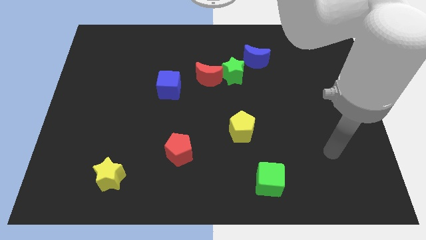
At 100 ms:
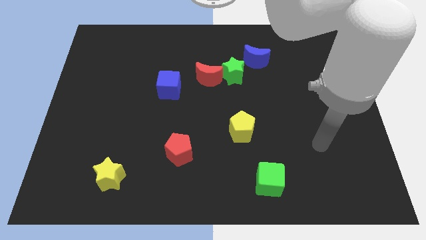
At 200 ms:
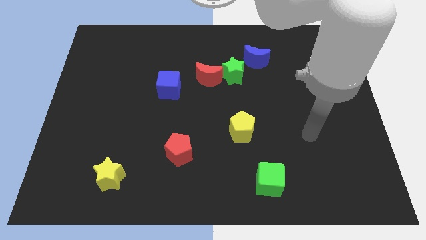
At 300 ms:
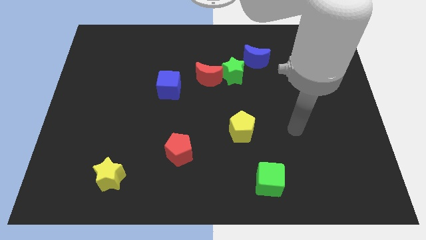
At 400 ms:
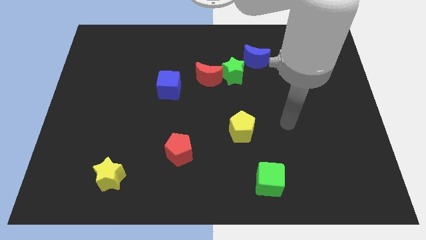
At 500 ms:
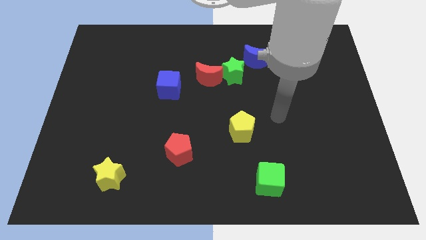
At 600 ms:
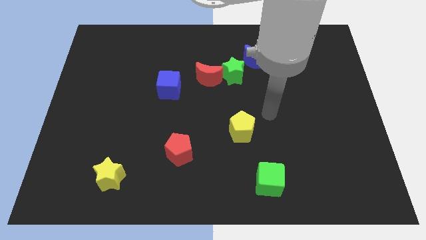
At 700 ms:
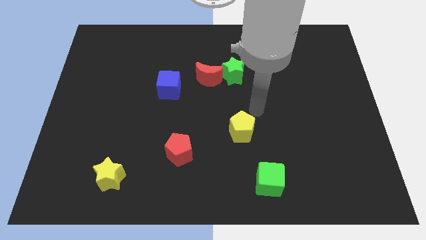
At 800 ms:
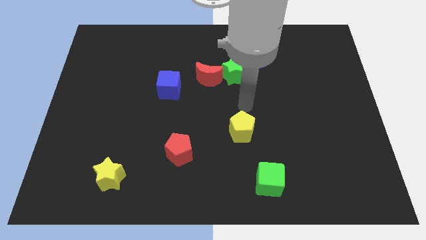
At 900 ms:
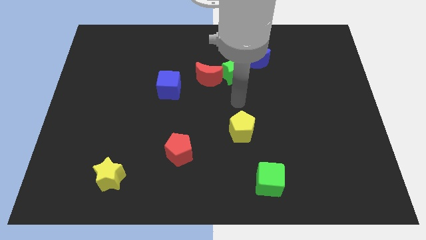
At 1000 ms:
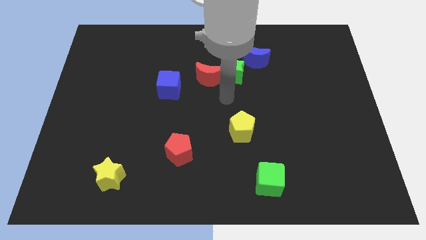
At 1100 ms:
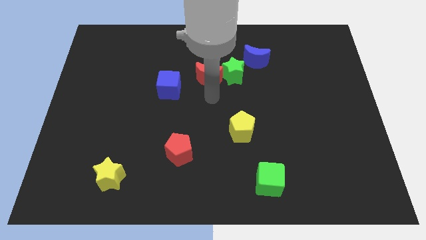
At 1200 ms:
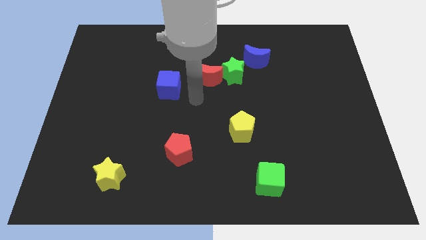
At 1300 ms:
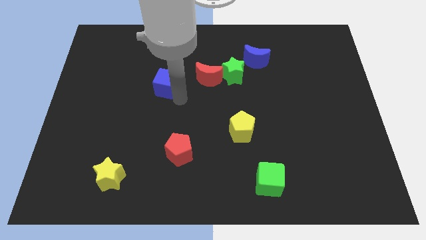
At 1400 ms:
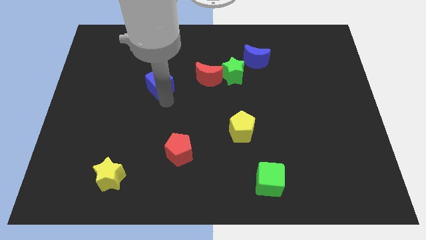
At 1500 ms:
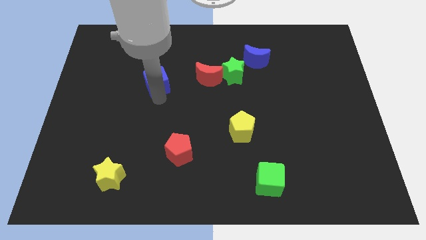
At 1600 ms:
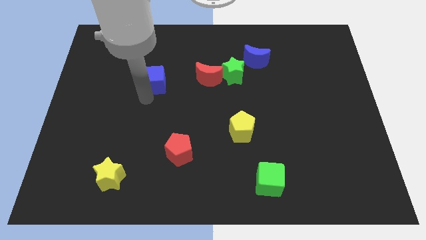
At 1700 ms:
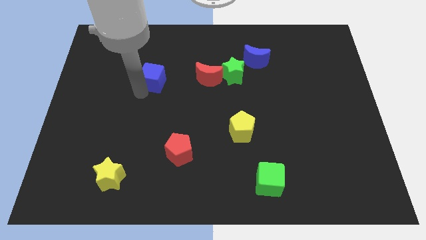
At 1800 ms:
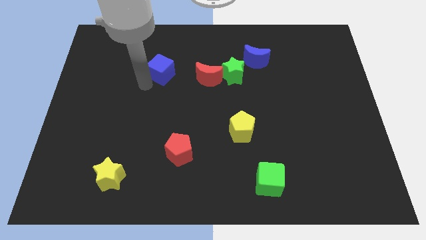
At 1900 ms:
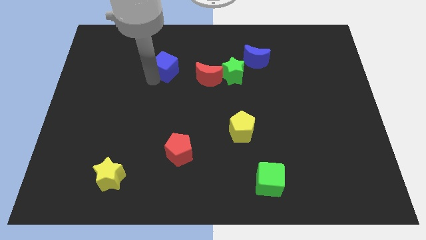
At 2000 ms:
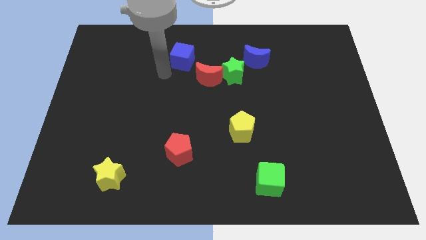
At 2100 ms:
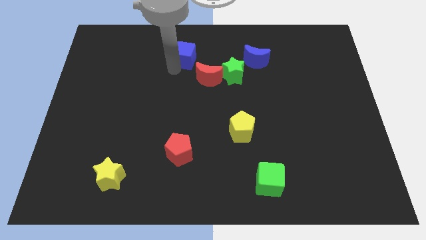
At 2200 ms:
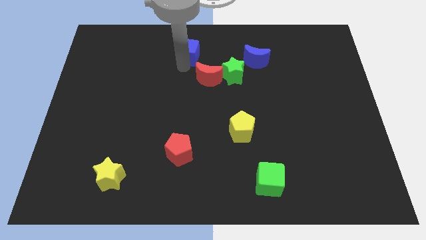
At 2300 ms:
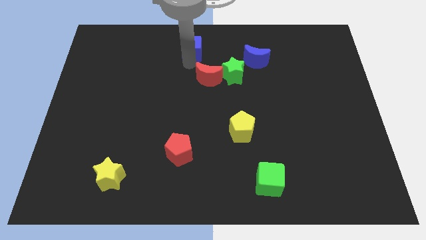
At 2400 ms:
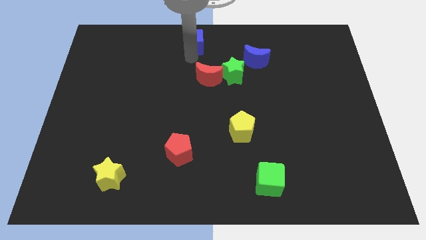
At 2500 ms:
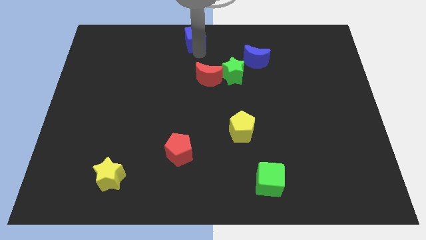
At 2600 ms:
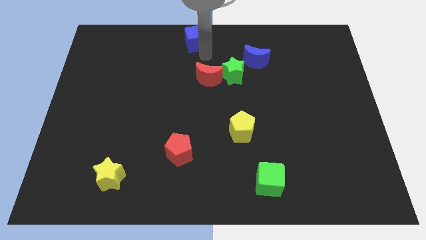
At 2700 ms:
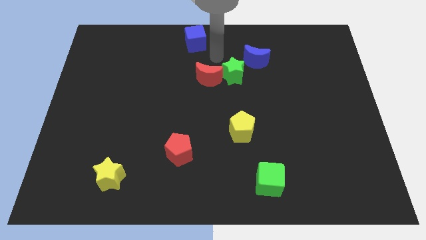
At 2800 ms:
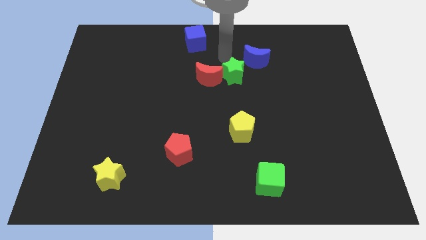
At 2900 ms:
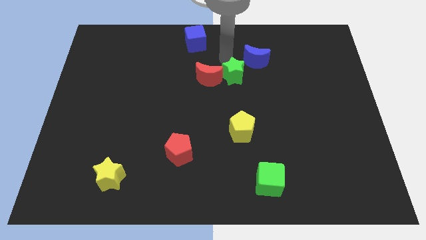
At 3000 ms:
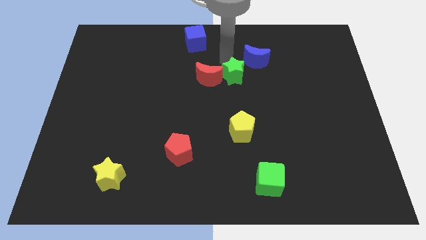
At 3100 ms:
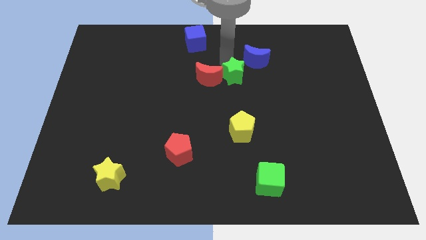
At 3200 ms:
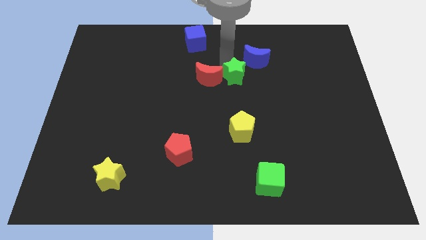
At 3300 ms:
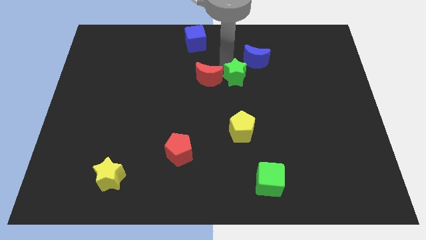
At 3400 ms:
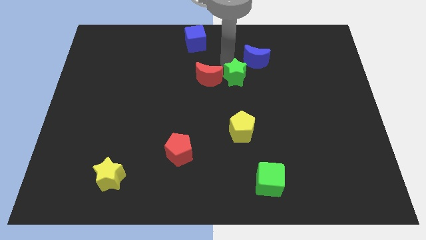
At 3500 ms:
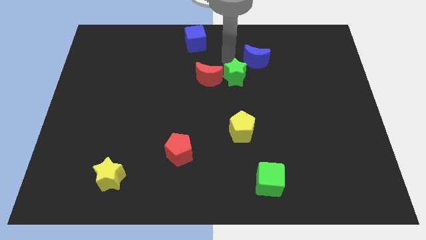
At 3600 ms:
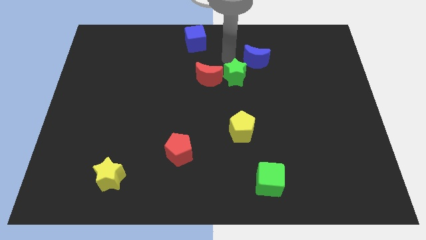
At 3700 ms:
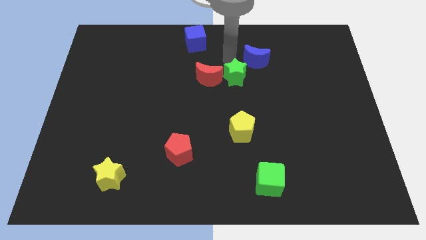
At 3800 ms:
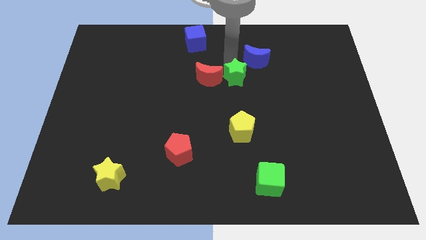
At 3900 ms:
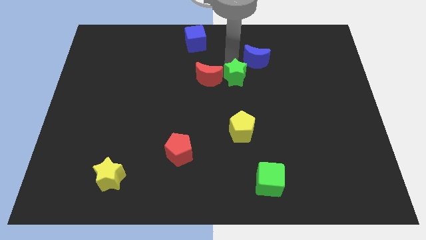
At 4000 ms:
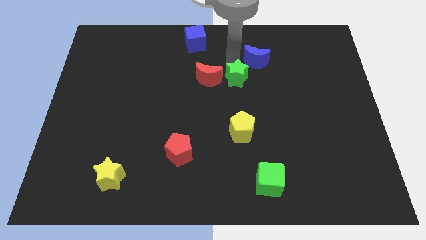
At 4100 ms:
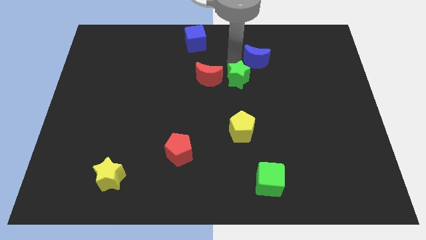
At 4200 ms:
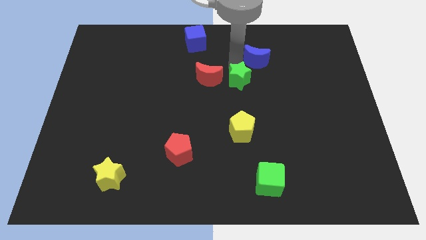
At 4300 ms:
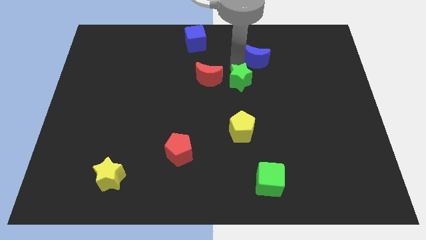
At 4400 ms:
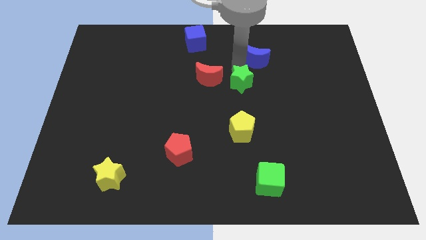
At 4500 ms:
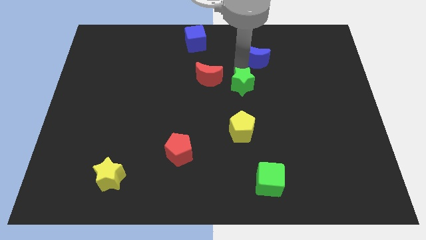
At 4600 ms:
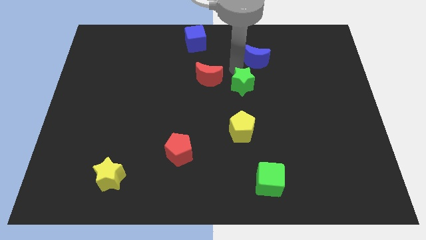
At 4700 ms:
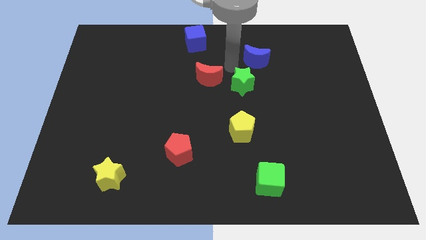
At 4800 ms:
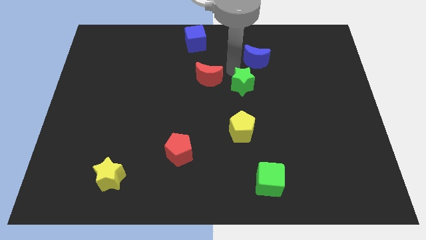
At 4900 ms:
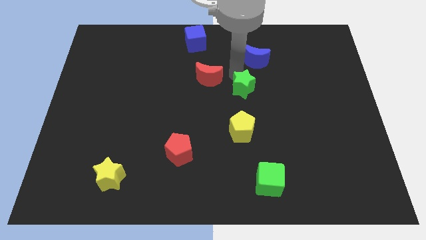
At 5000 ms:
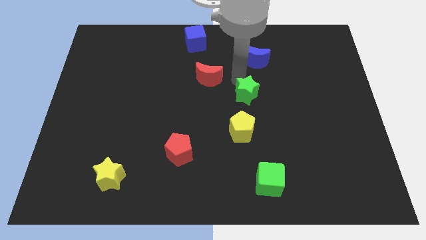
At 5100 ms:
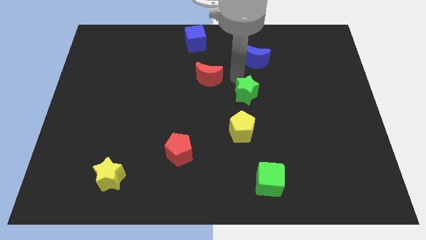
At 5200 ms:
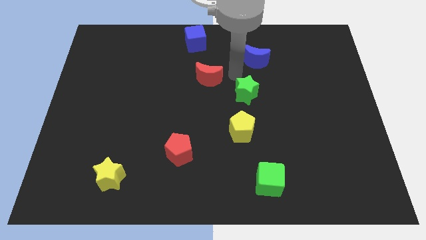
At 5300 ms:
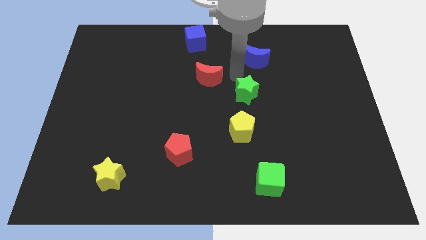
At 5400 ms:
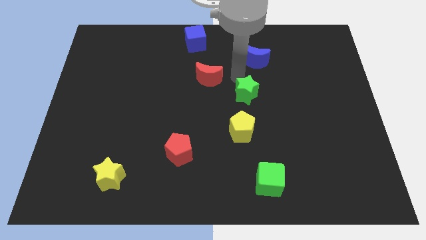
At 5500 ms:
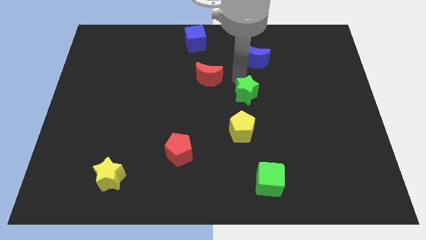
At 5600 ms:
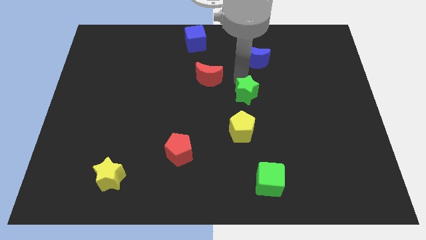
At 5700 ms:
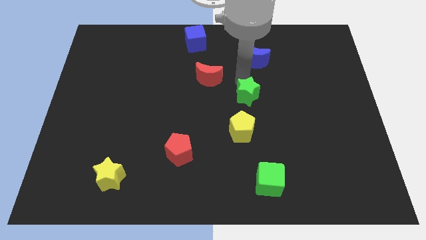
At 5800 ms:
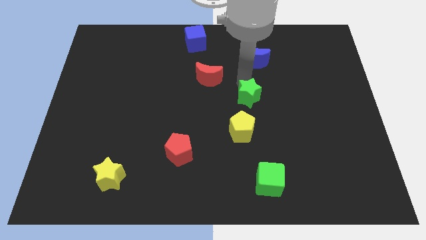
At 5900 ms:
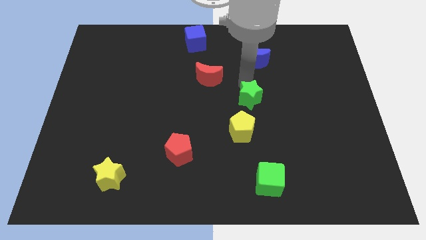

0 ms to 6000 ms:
separate the green star from the red moon and blue moon

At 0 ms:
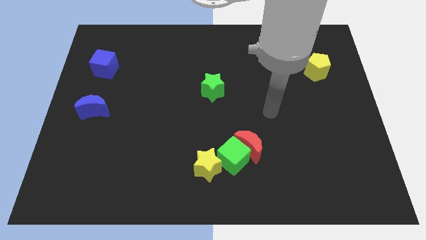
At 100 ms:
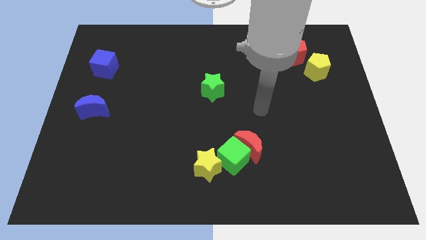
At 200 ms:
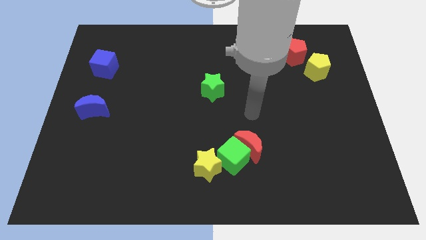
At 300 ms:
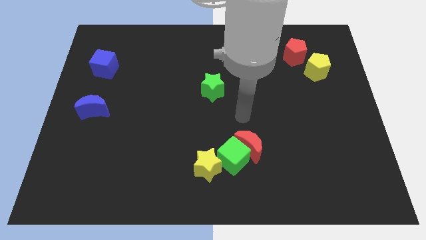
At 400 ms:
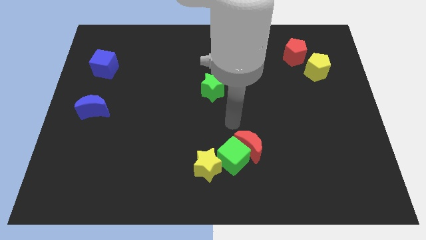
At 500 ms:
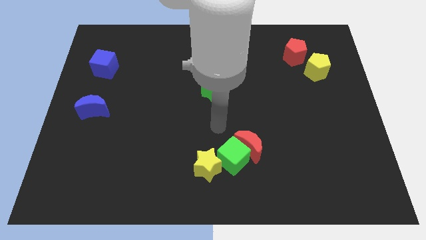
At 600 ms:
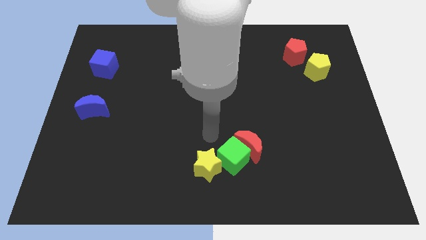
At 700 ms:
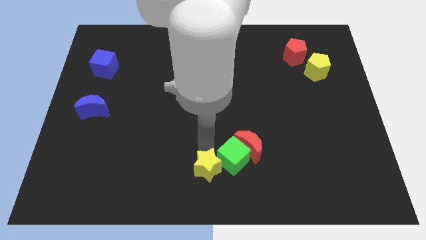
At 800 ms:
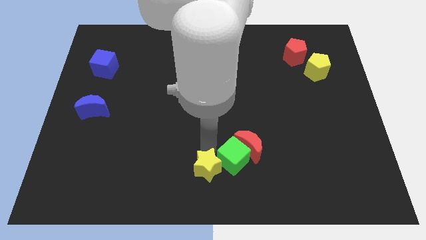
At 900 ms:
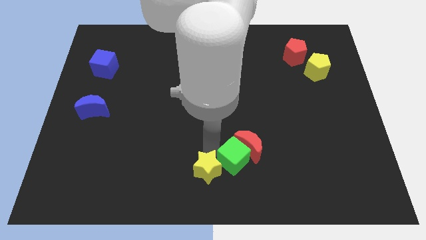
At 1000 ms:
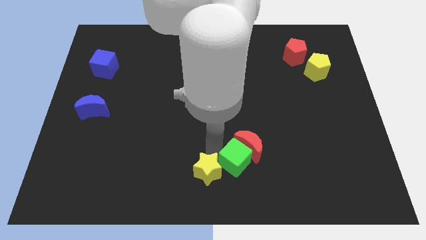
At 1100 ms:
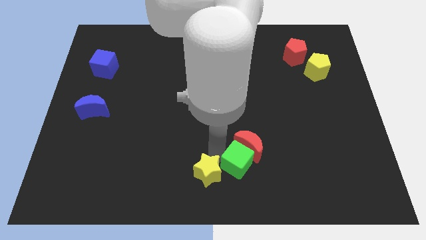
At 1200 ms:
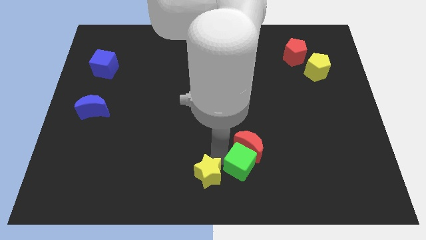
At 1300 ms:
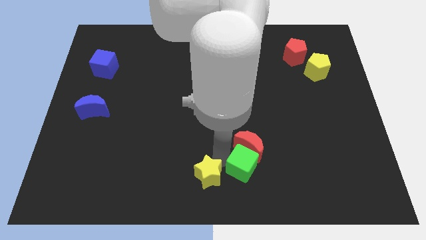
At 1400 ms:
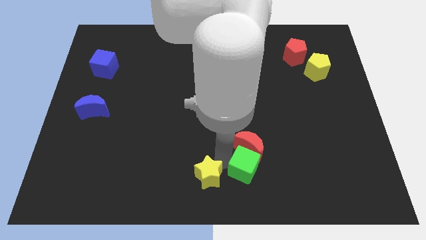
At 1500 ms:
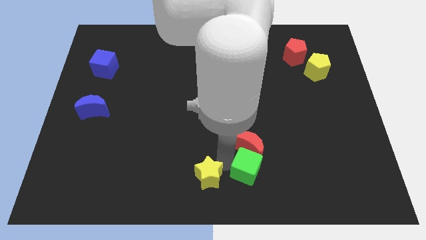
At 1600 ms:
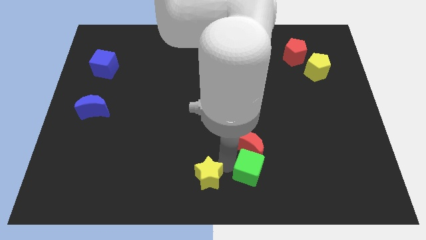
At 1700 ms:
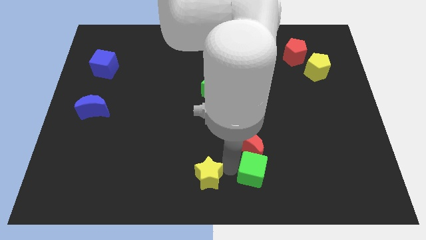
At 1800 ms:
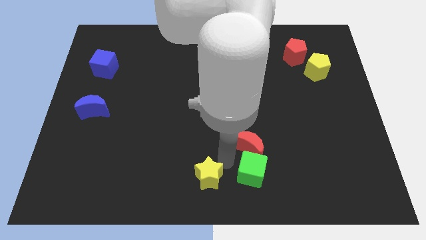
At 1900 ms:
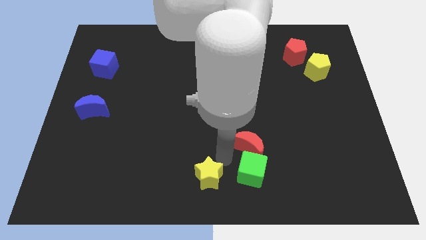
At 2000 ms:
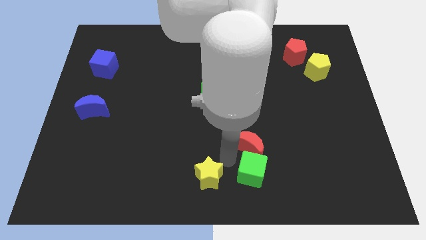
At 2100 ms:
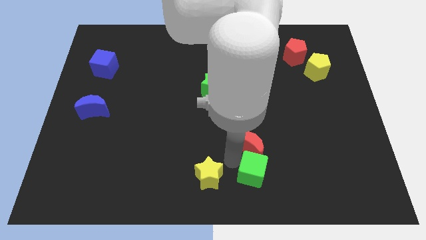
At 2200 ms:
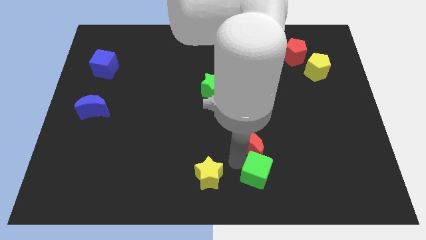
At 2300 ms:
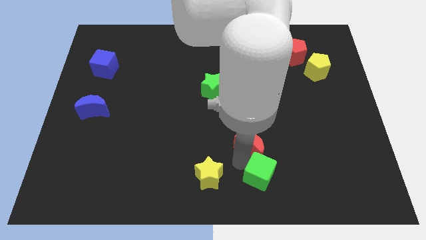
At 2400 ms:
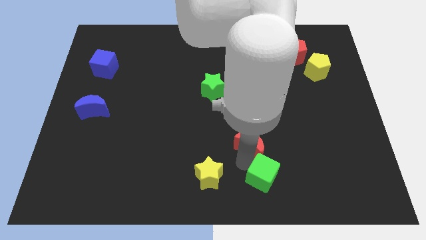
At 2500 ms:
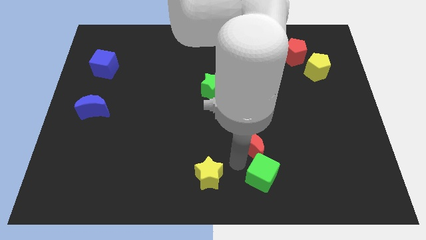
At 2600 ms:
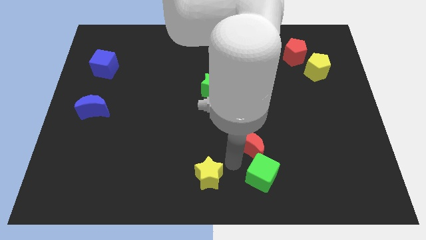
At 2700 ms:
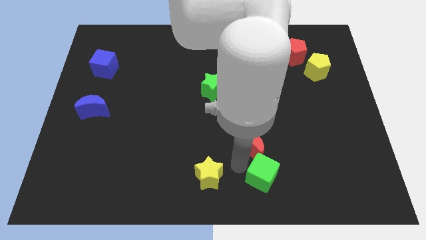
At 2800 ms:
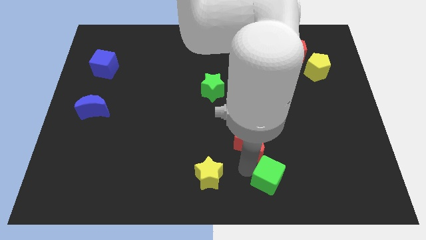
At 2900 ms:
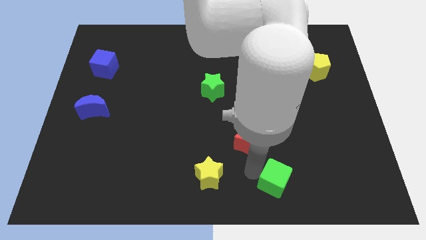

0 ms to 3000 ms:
move the green cube away from the red moon and yellow star

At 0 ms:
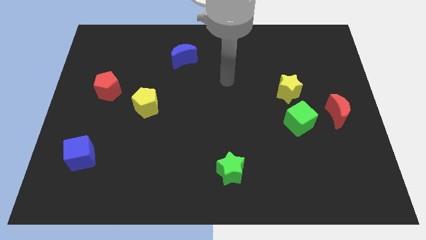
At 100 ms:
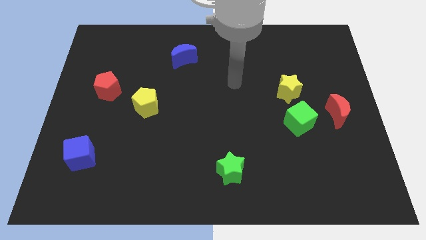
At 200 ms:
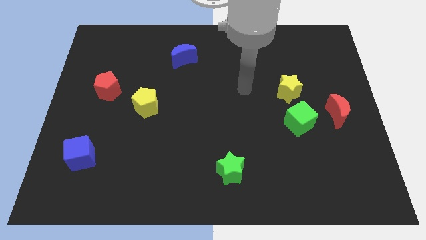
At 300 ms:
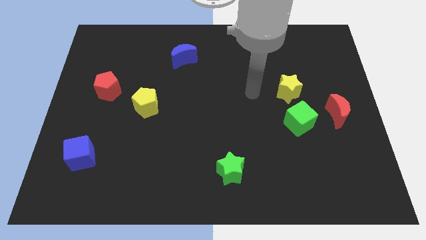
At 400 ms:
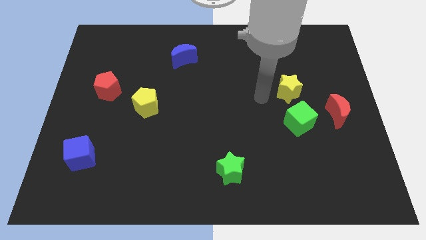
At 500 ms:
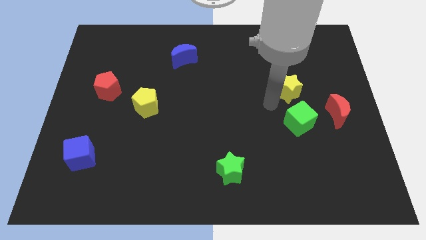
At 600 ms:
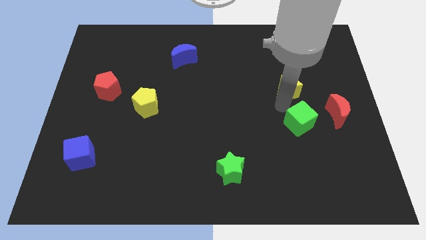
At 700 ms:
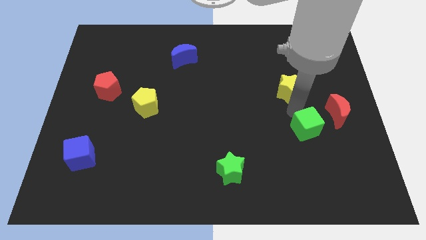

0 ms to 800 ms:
pull the yellow star apart from the green cube
